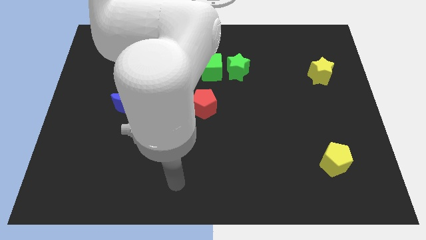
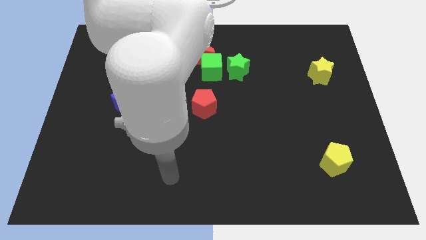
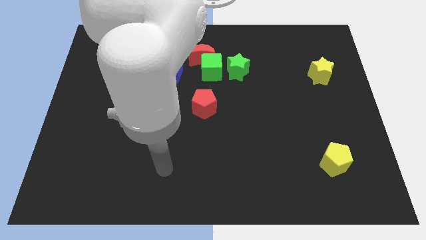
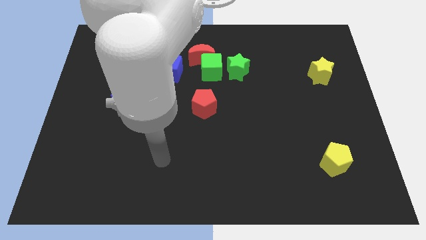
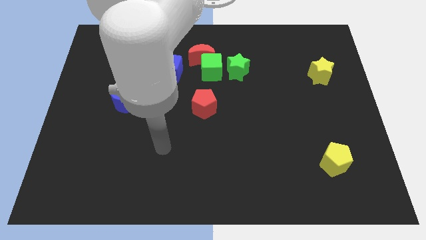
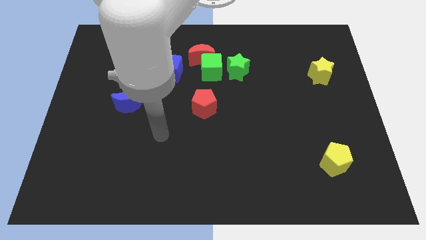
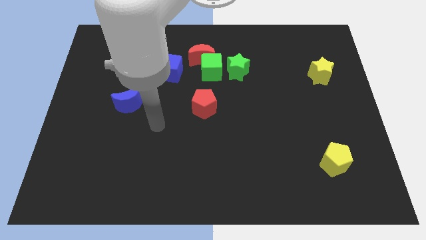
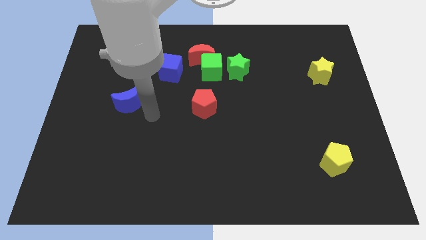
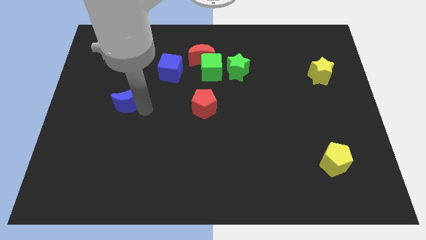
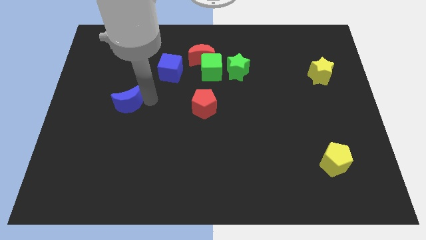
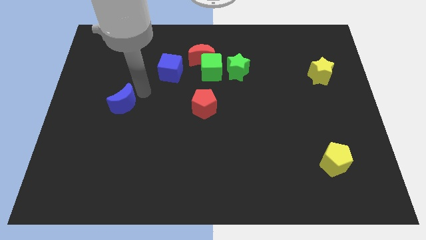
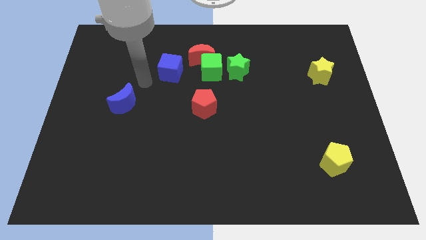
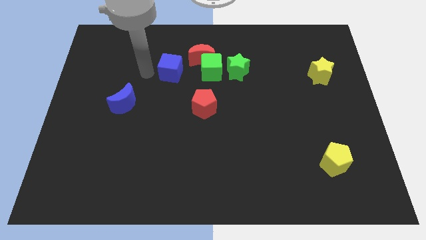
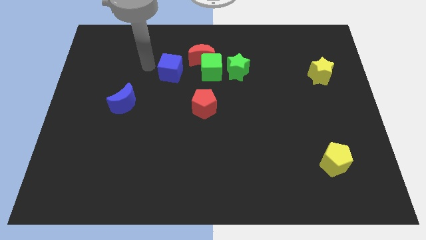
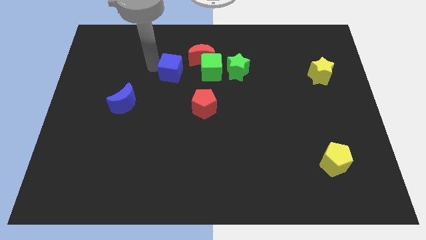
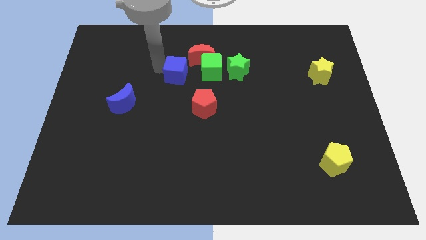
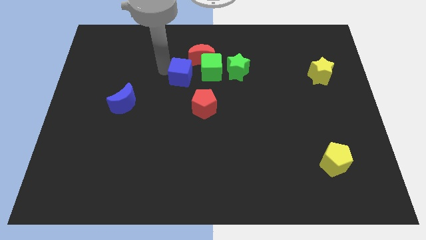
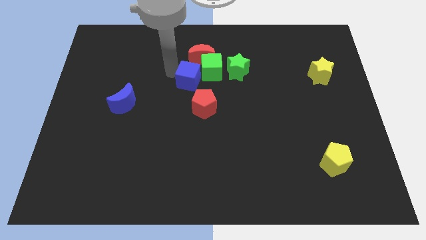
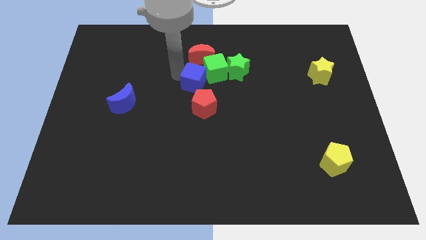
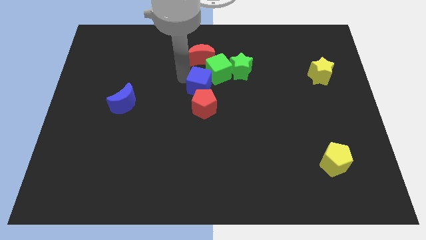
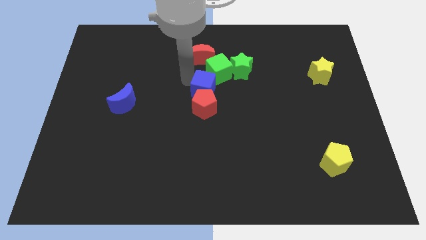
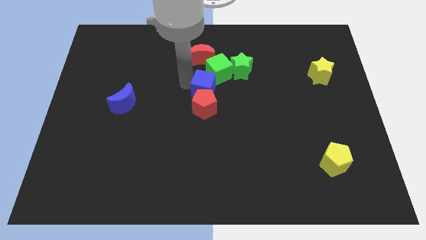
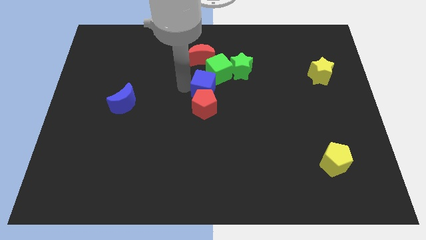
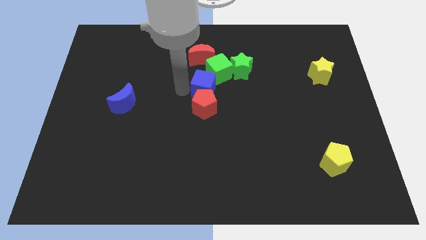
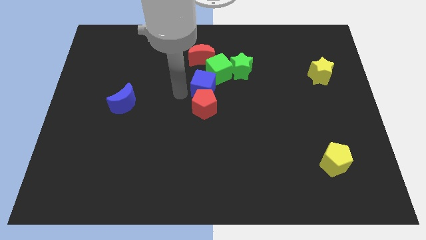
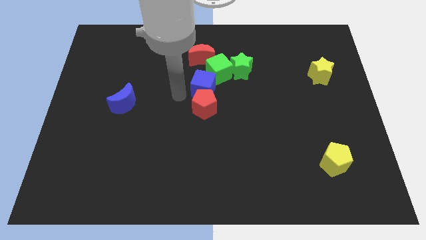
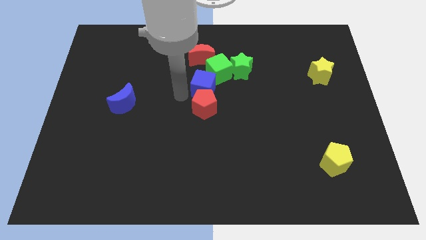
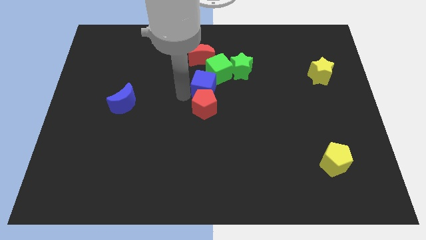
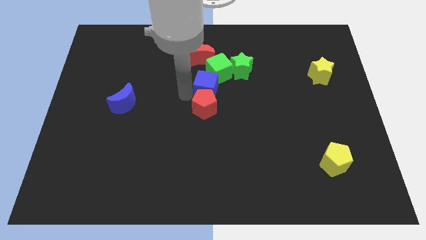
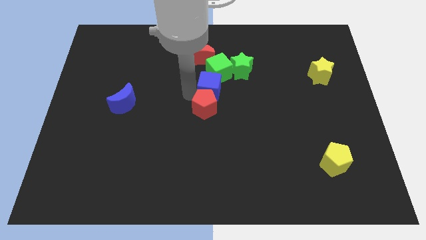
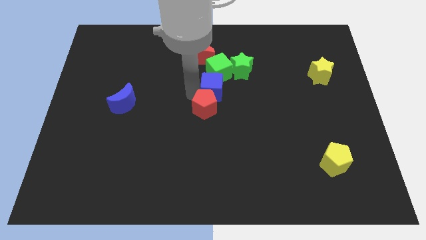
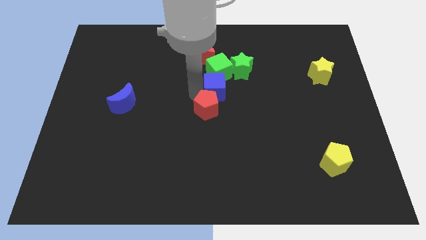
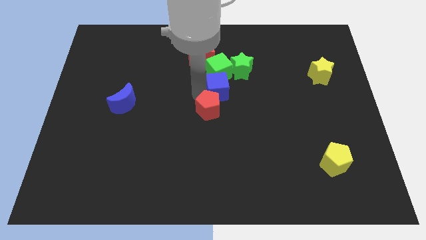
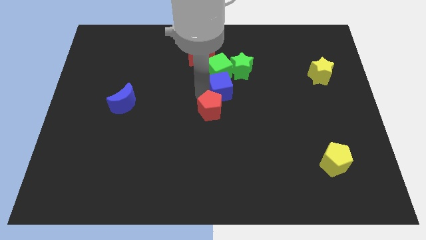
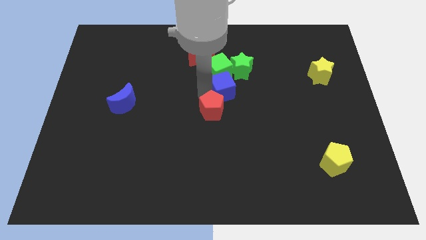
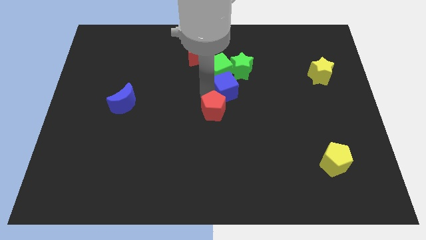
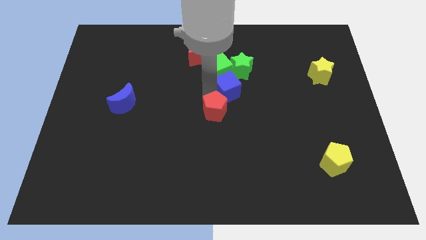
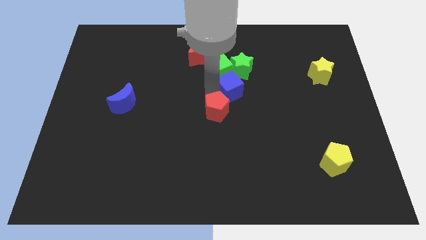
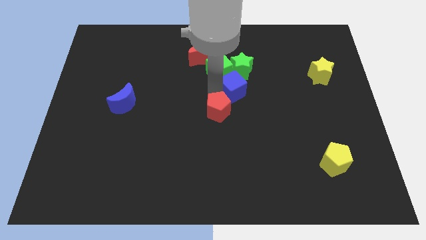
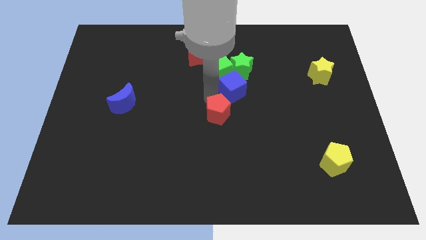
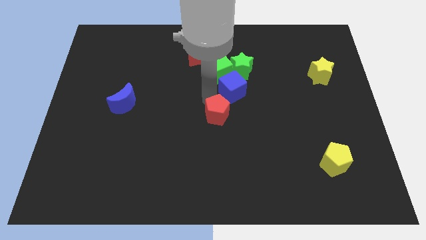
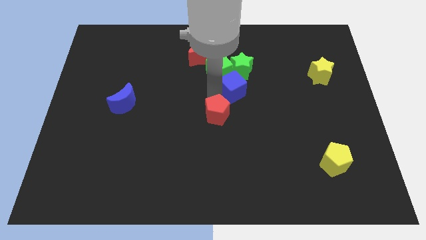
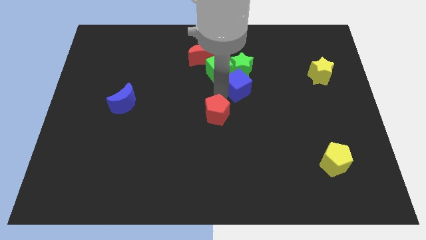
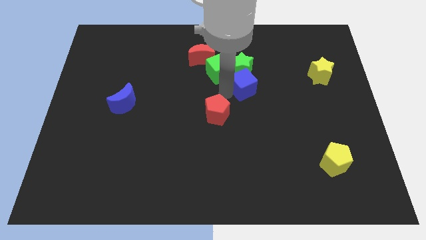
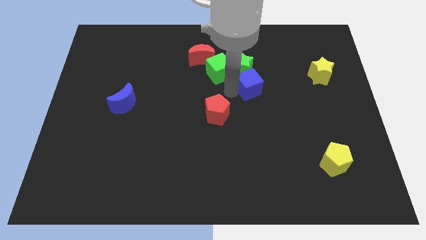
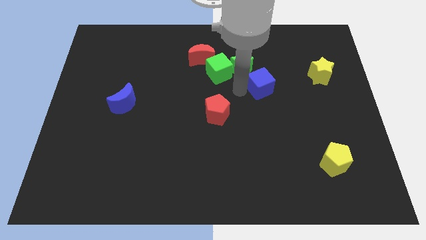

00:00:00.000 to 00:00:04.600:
slide the blue cube to the right

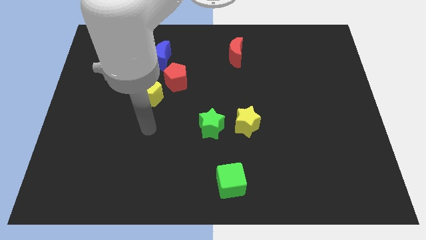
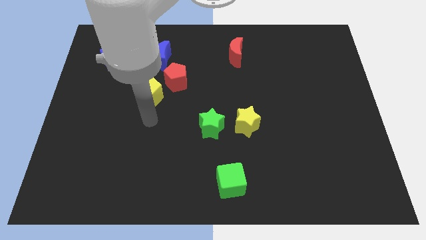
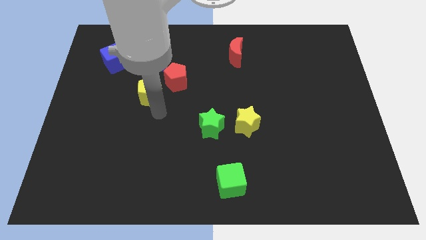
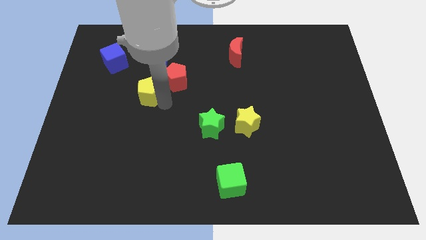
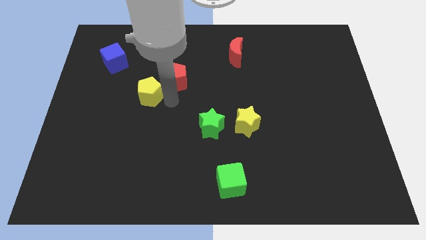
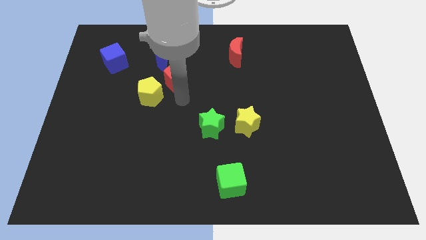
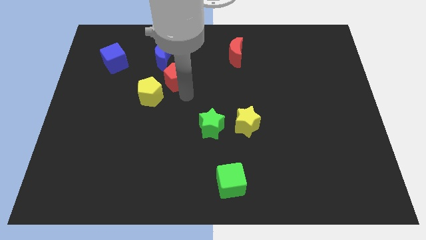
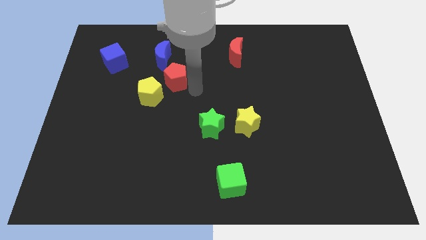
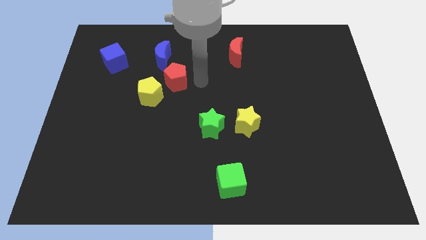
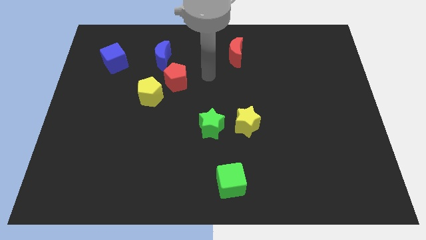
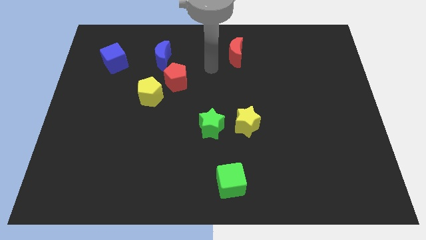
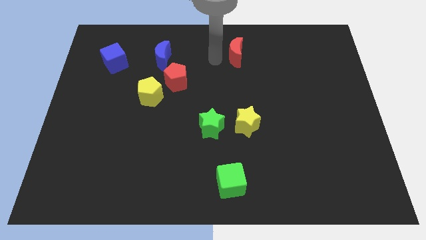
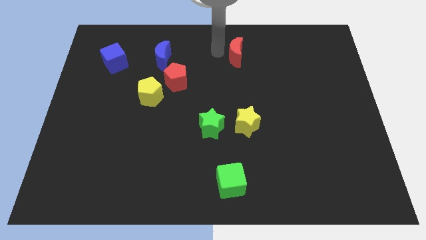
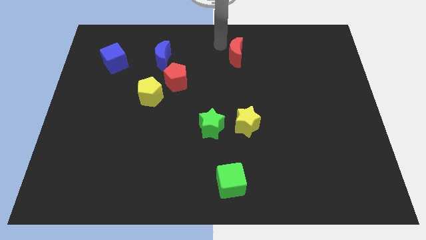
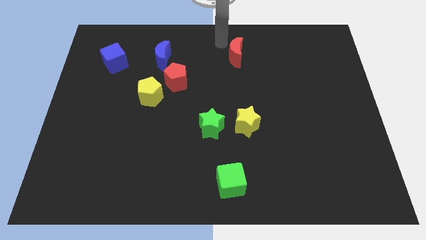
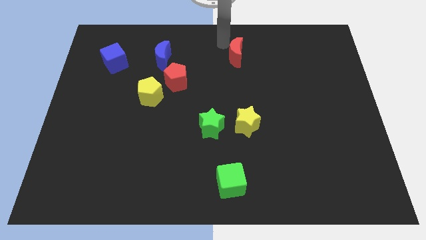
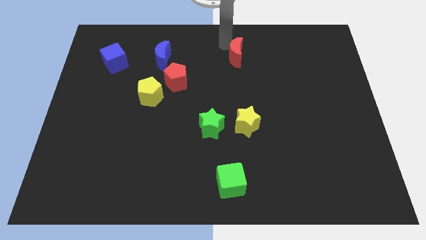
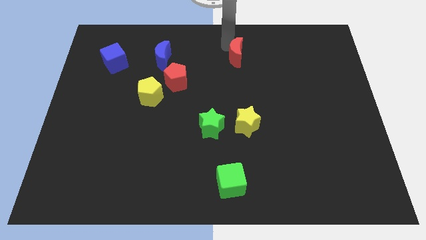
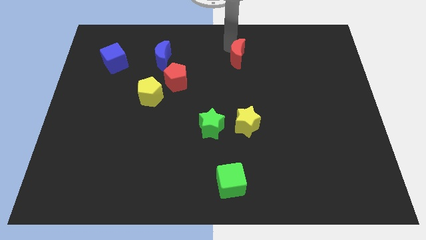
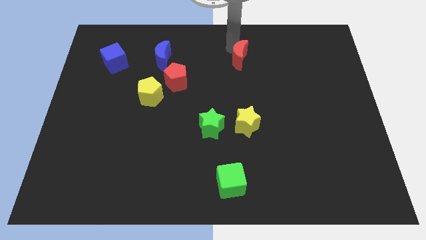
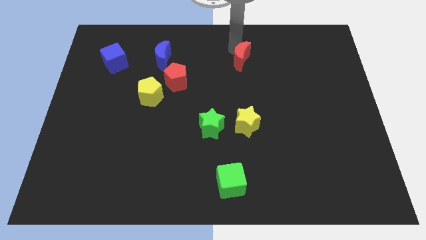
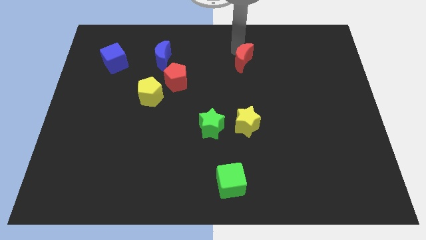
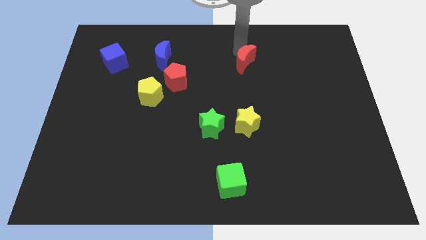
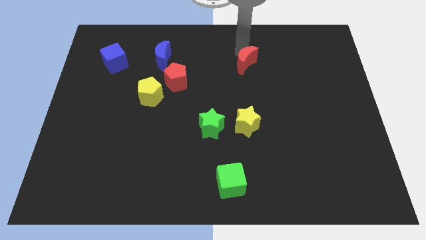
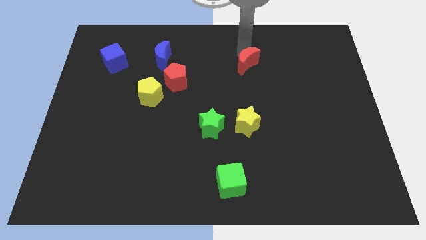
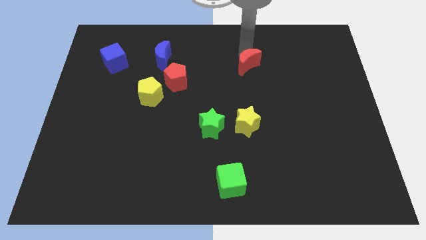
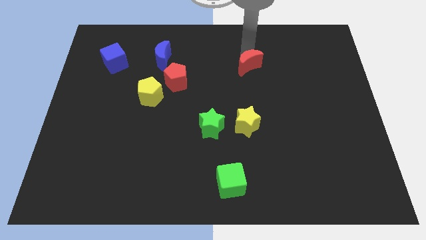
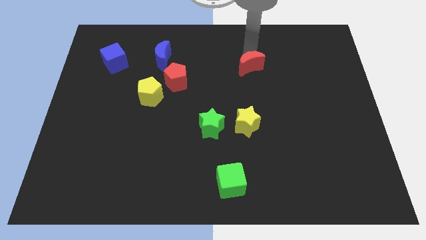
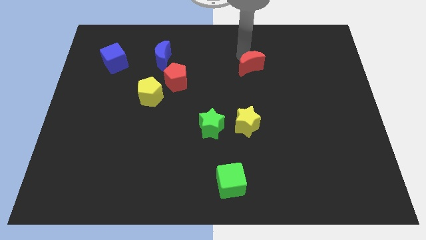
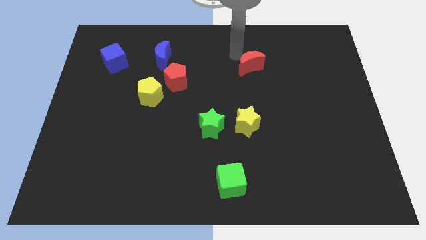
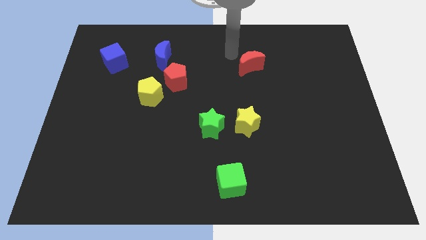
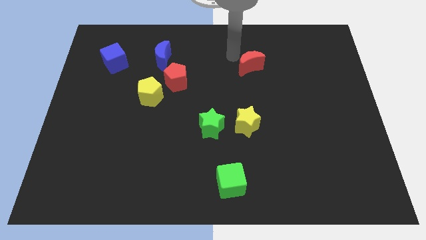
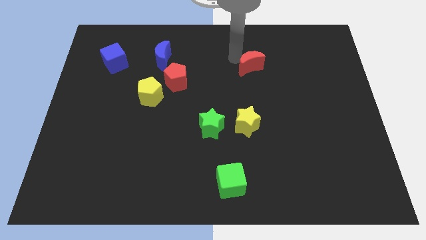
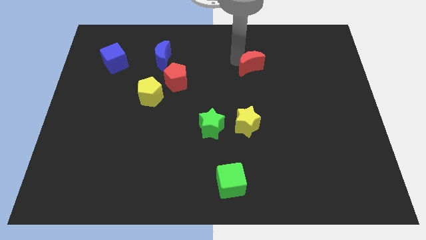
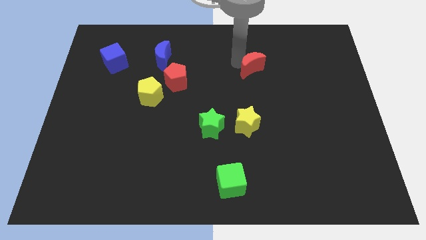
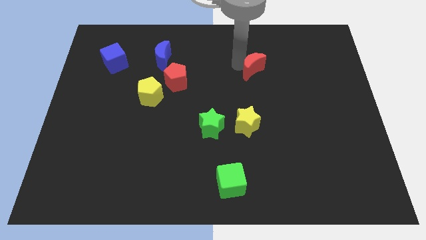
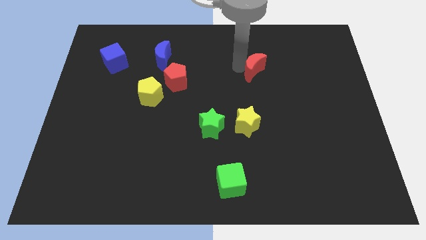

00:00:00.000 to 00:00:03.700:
slide the red moon a bit down and then to the right
